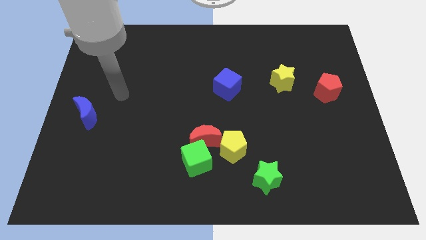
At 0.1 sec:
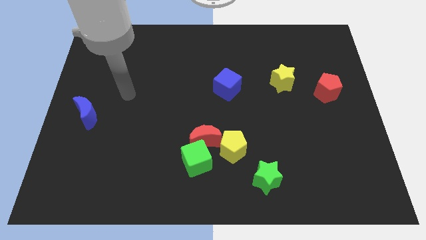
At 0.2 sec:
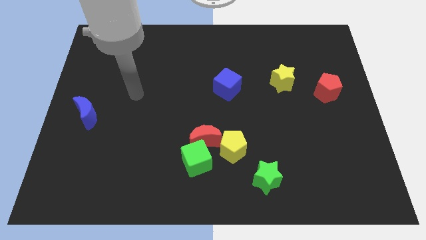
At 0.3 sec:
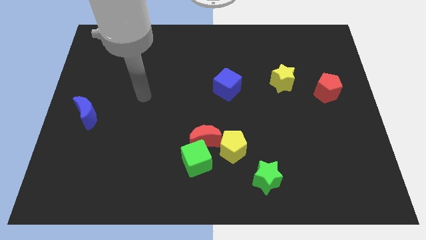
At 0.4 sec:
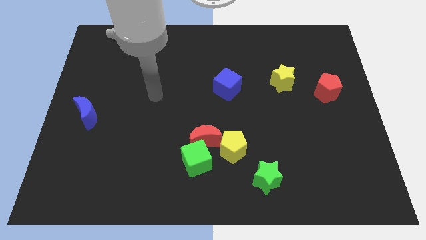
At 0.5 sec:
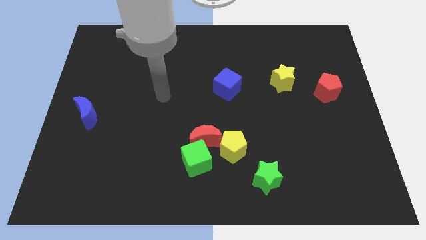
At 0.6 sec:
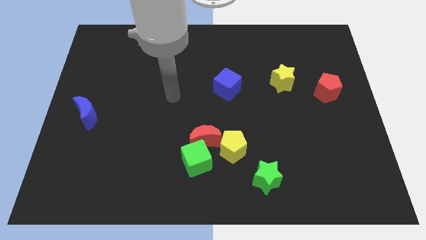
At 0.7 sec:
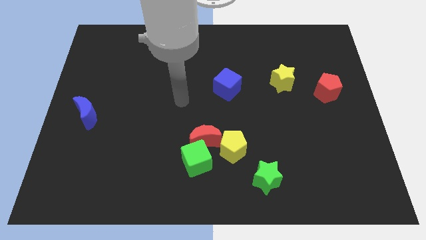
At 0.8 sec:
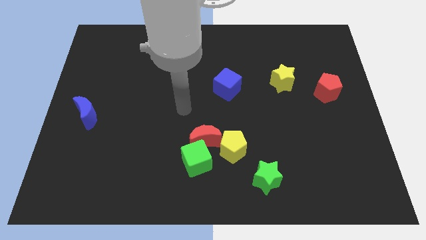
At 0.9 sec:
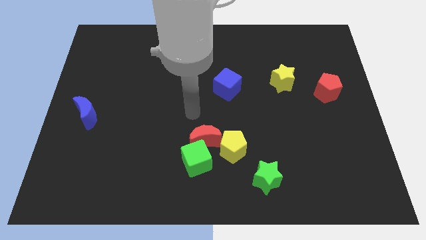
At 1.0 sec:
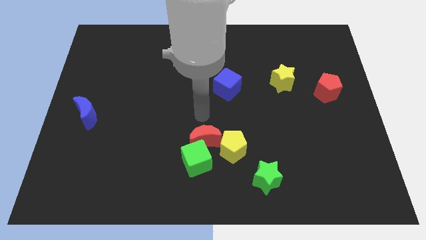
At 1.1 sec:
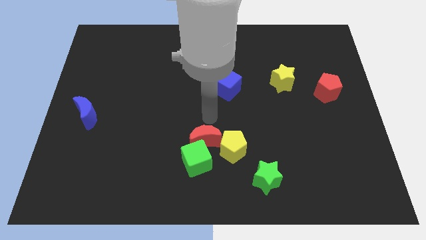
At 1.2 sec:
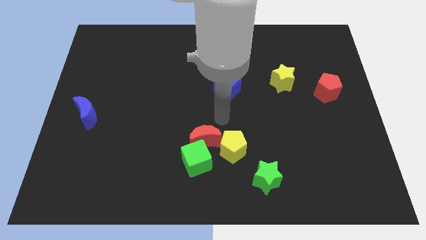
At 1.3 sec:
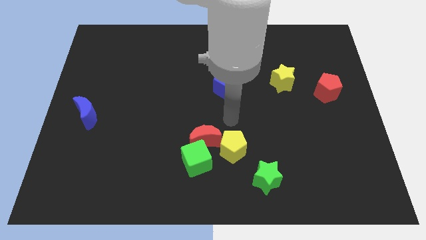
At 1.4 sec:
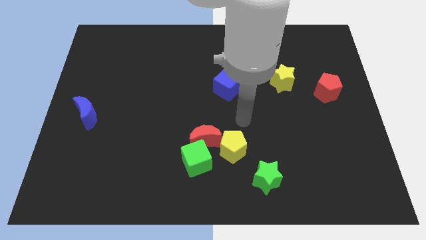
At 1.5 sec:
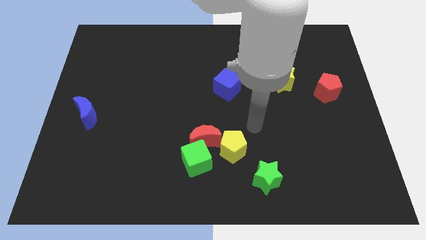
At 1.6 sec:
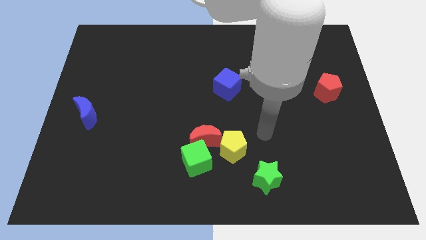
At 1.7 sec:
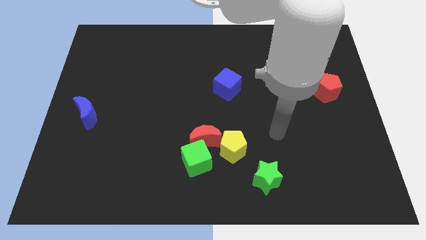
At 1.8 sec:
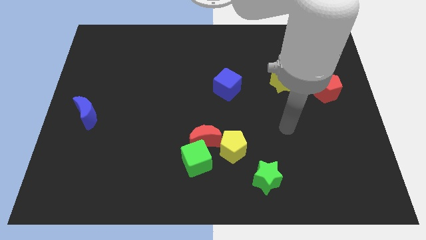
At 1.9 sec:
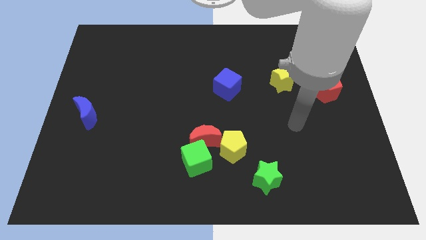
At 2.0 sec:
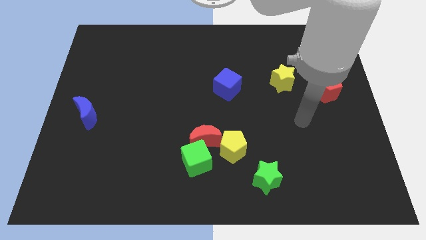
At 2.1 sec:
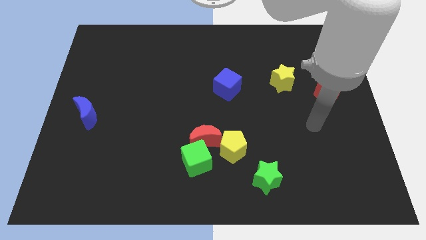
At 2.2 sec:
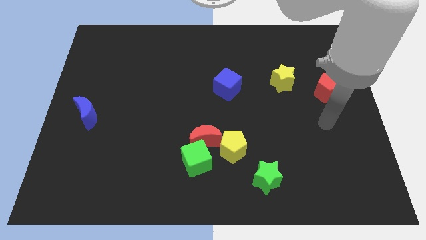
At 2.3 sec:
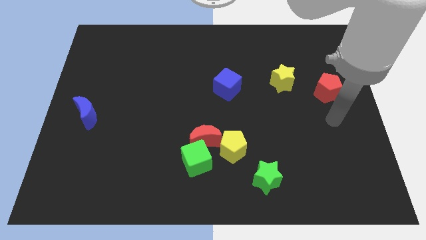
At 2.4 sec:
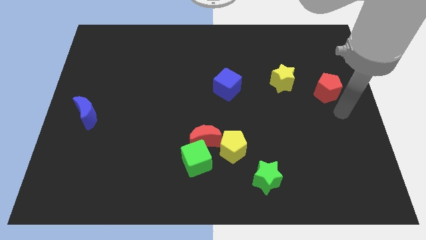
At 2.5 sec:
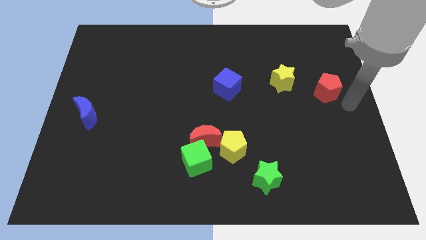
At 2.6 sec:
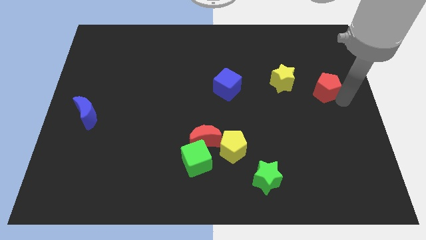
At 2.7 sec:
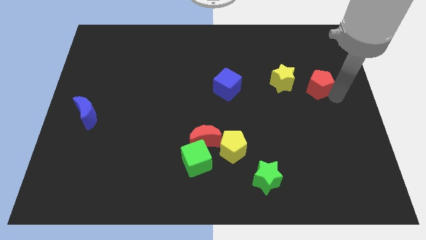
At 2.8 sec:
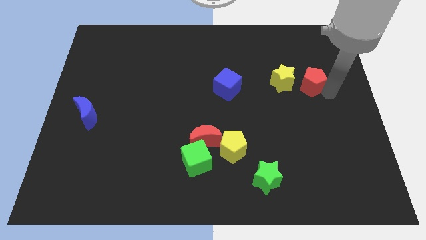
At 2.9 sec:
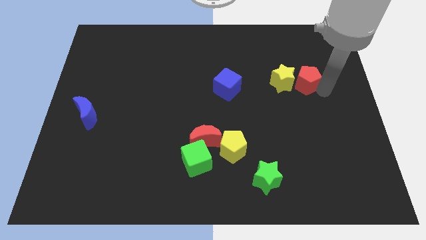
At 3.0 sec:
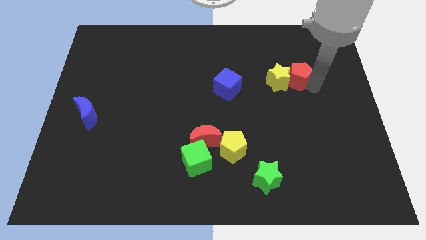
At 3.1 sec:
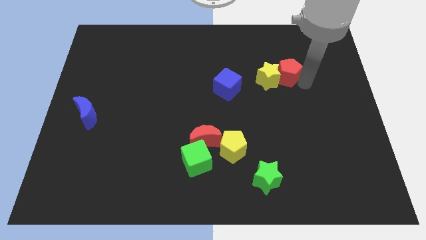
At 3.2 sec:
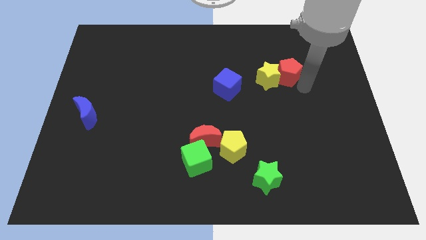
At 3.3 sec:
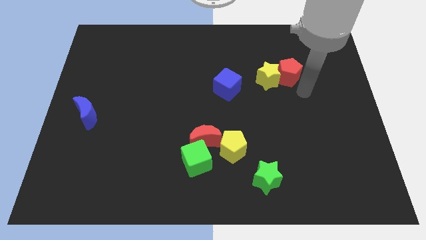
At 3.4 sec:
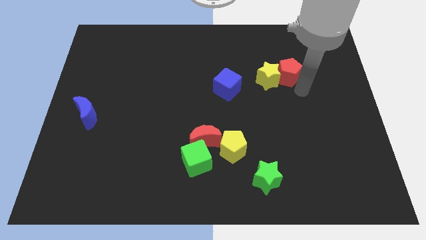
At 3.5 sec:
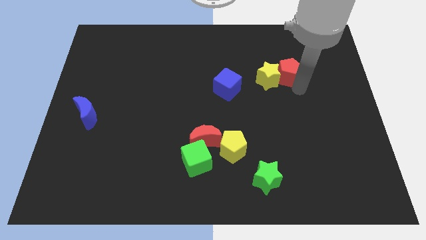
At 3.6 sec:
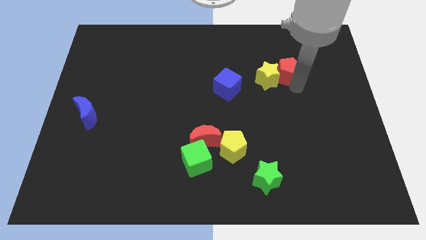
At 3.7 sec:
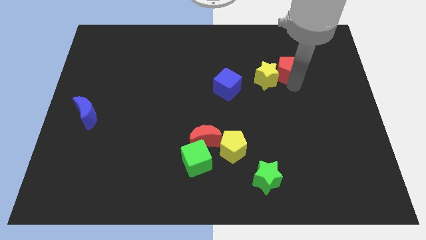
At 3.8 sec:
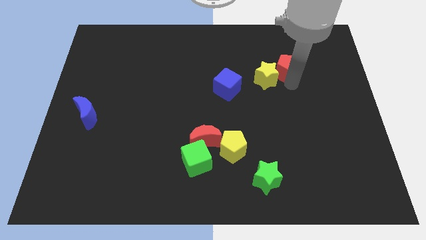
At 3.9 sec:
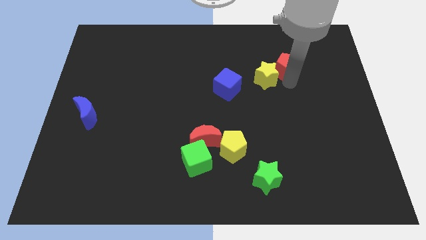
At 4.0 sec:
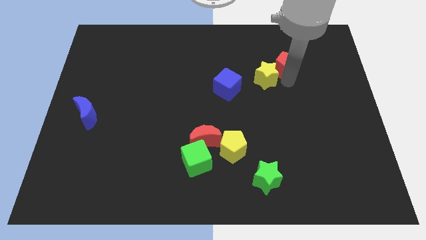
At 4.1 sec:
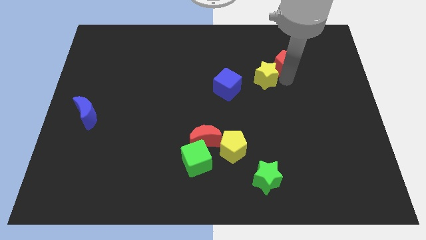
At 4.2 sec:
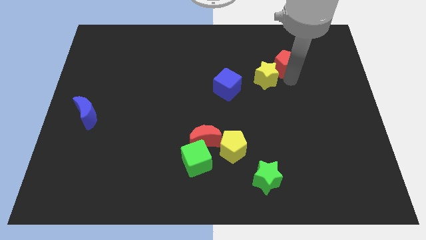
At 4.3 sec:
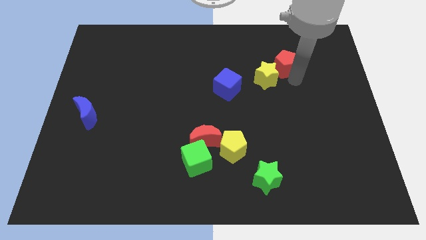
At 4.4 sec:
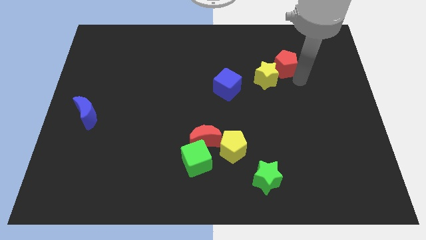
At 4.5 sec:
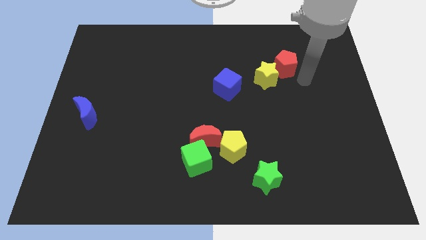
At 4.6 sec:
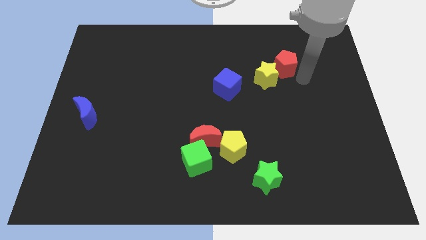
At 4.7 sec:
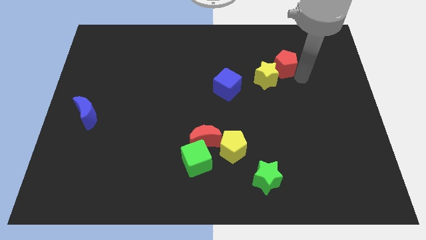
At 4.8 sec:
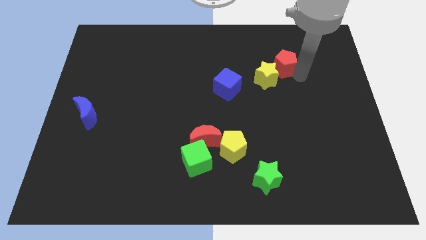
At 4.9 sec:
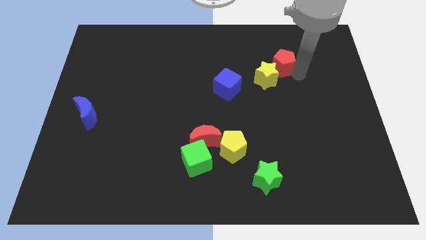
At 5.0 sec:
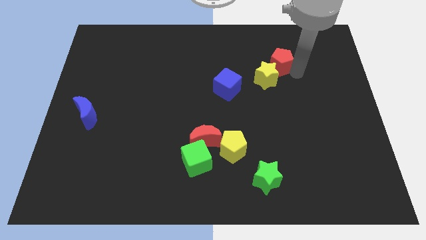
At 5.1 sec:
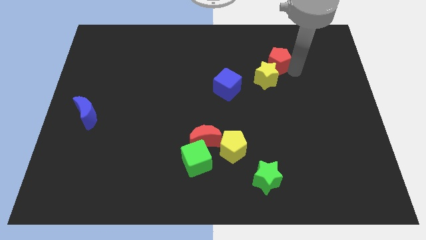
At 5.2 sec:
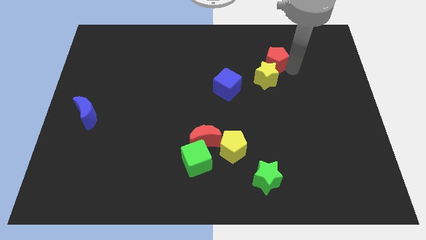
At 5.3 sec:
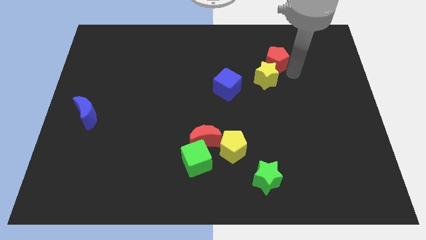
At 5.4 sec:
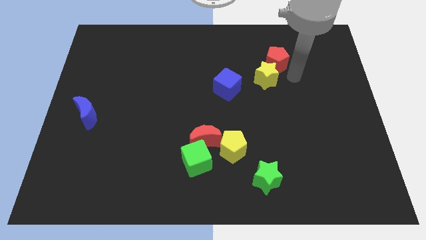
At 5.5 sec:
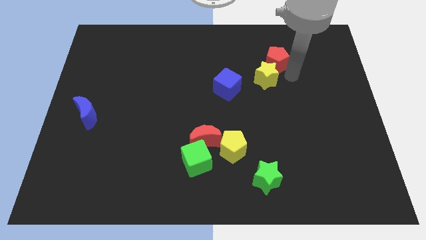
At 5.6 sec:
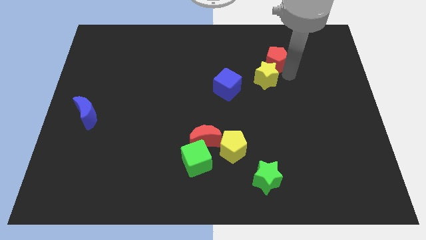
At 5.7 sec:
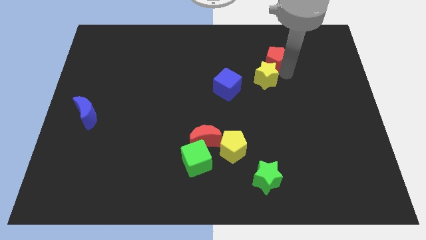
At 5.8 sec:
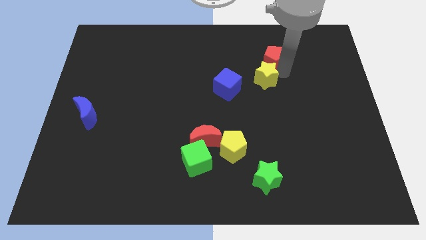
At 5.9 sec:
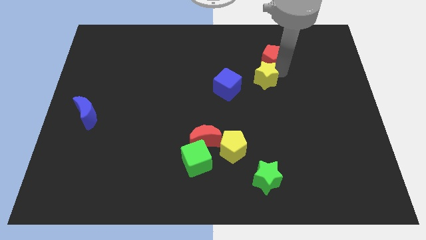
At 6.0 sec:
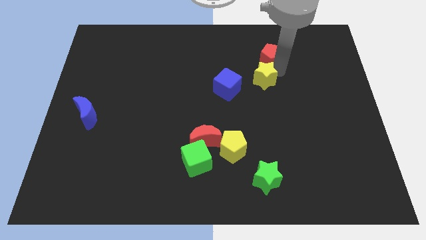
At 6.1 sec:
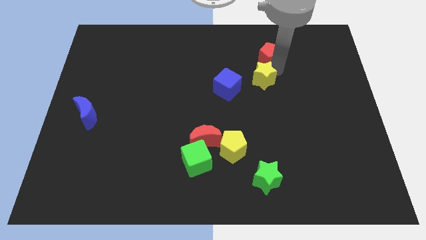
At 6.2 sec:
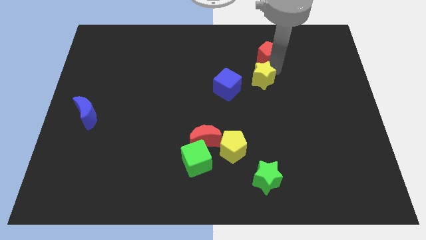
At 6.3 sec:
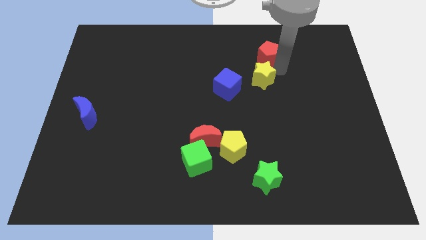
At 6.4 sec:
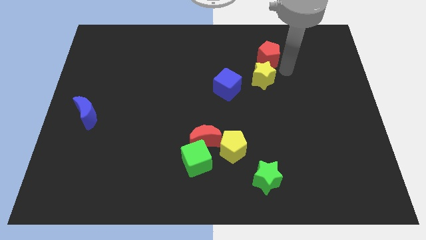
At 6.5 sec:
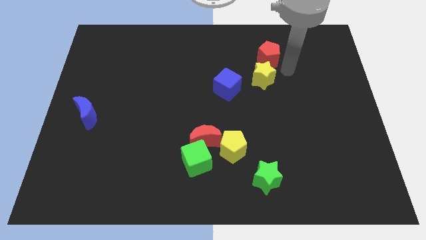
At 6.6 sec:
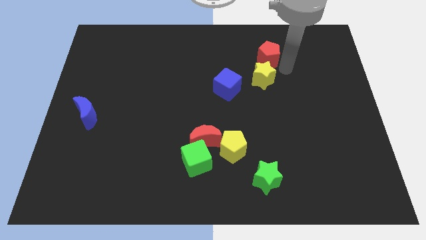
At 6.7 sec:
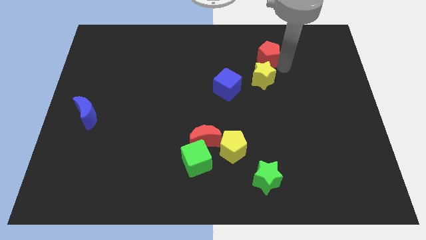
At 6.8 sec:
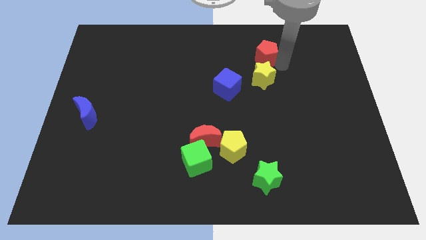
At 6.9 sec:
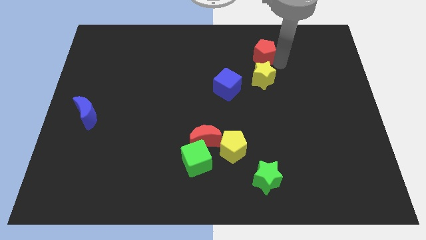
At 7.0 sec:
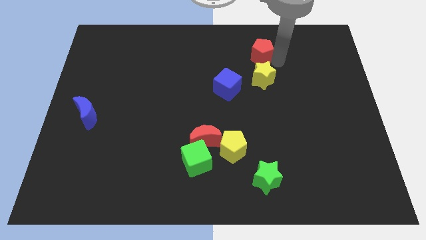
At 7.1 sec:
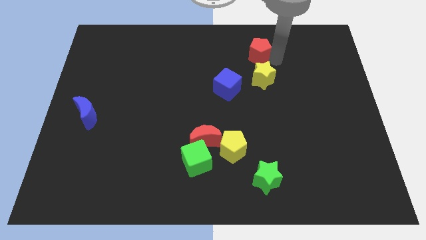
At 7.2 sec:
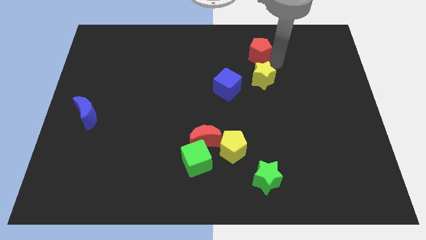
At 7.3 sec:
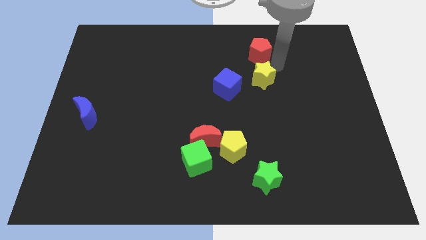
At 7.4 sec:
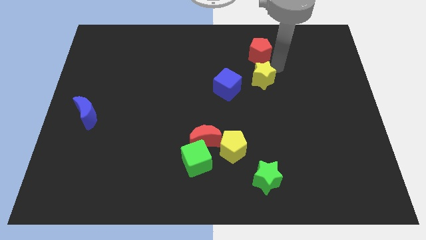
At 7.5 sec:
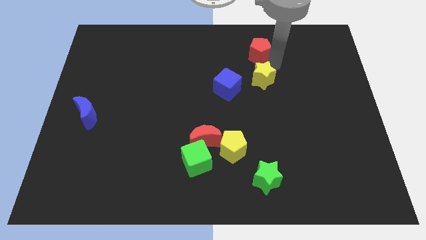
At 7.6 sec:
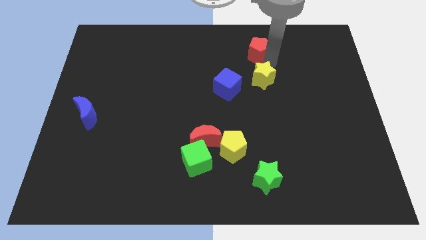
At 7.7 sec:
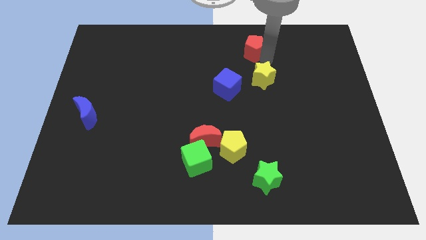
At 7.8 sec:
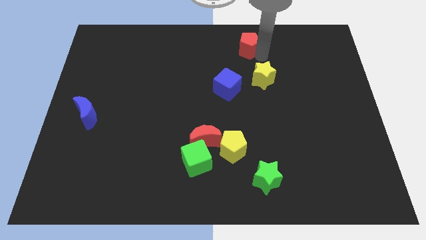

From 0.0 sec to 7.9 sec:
push the red pentagon to the top
